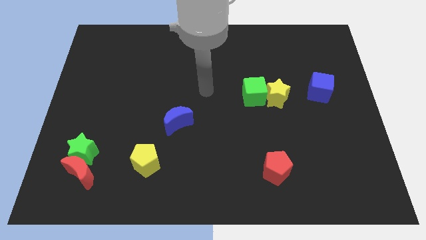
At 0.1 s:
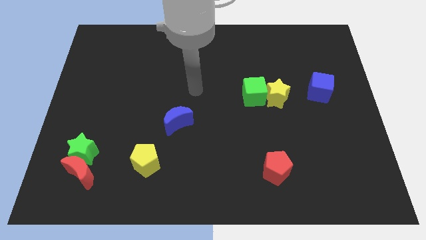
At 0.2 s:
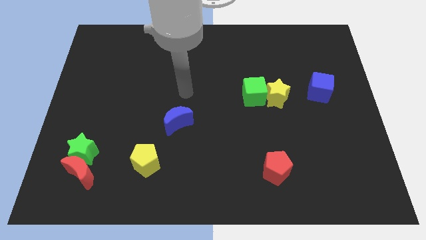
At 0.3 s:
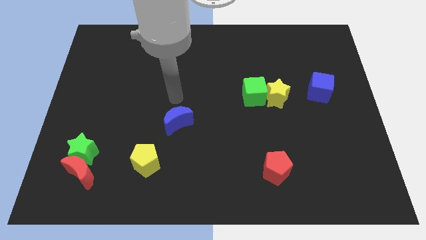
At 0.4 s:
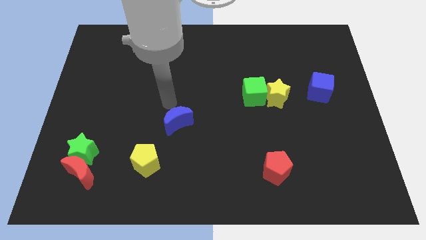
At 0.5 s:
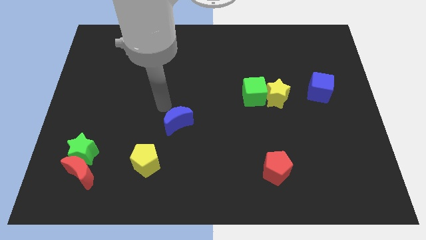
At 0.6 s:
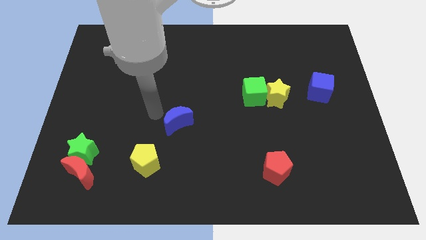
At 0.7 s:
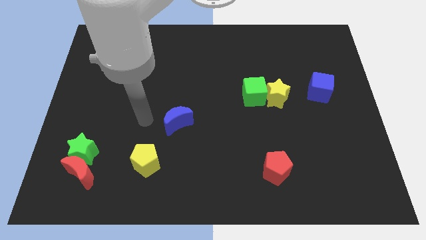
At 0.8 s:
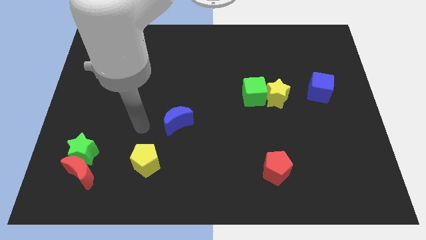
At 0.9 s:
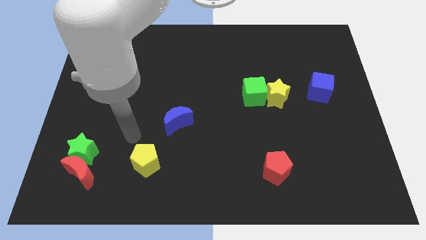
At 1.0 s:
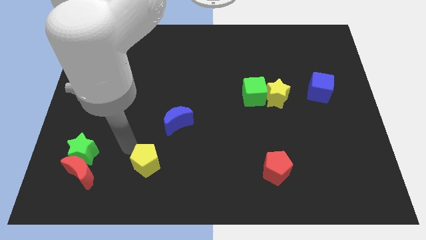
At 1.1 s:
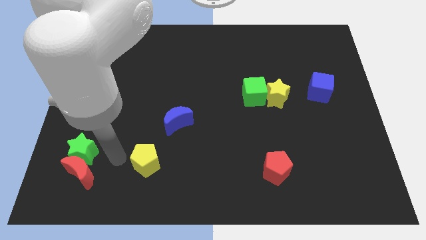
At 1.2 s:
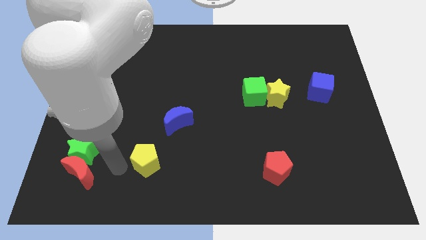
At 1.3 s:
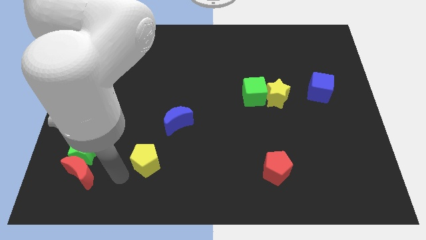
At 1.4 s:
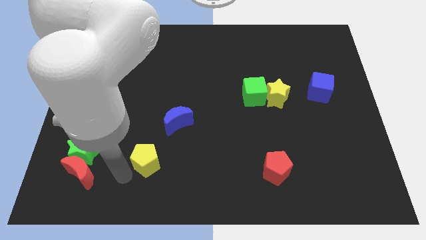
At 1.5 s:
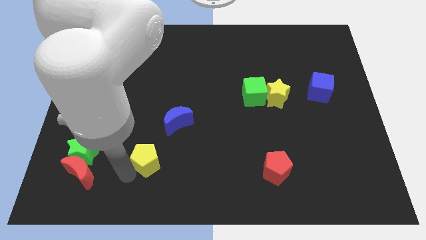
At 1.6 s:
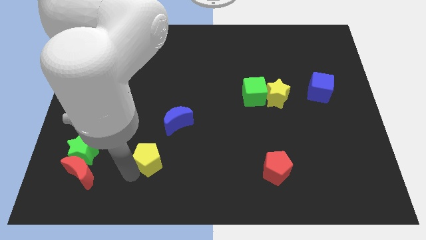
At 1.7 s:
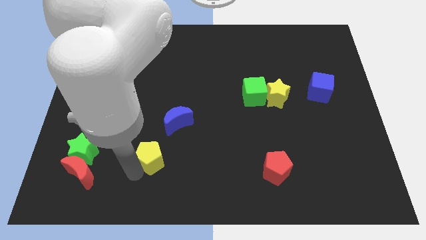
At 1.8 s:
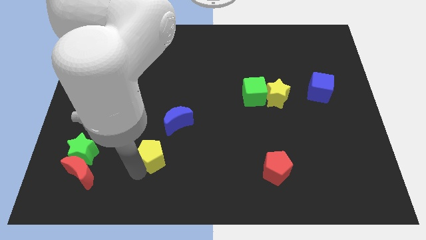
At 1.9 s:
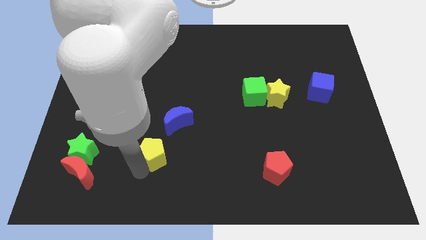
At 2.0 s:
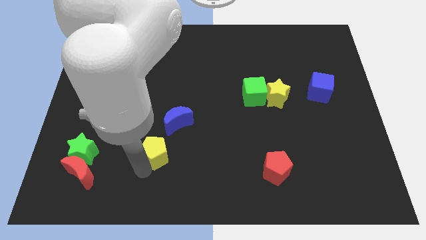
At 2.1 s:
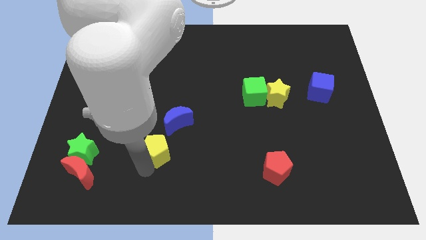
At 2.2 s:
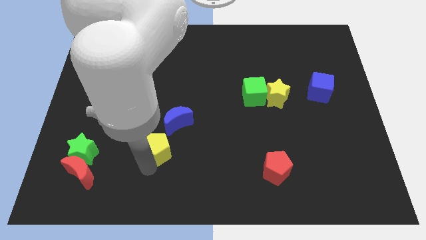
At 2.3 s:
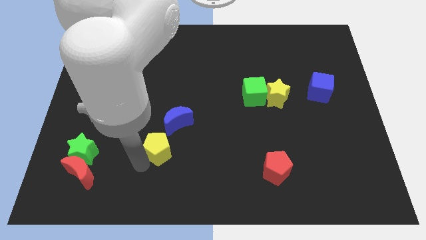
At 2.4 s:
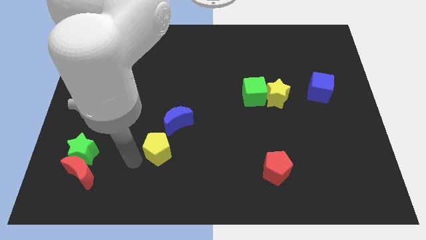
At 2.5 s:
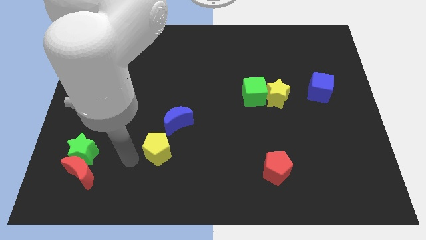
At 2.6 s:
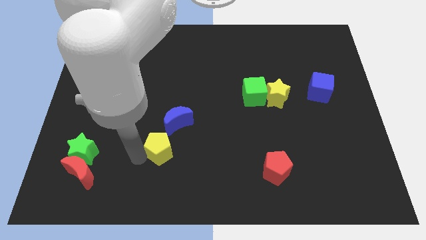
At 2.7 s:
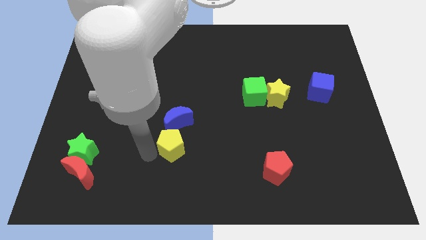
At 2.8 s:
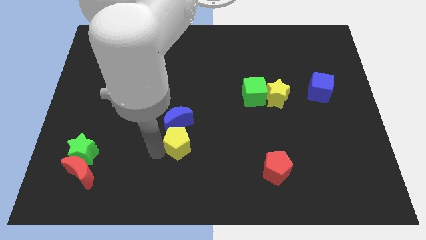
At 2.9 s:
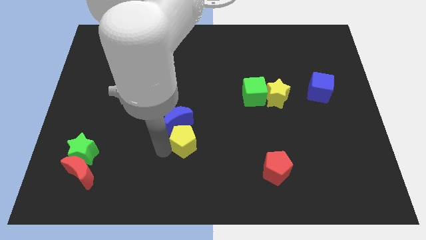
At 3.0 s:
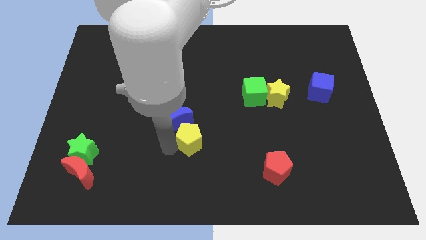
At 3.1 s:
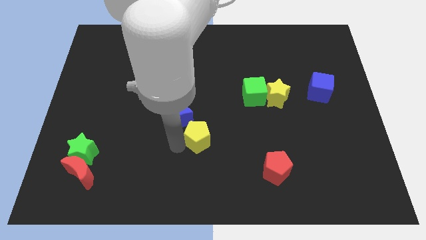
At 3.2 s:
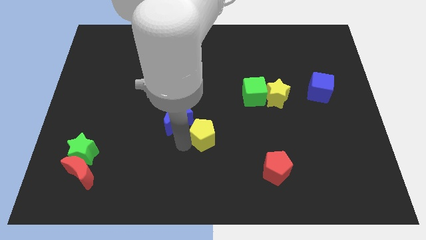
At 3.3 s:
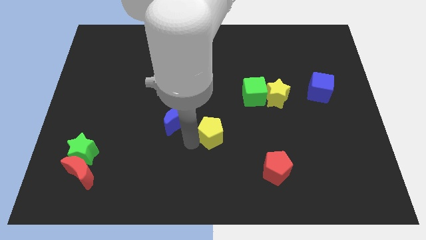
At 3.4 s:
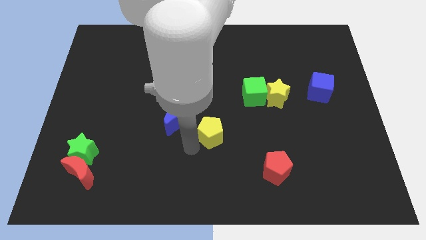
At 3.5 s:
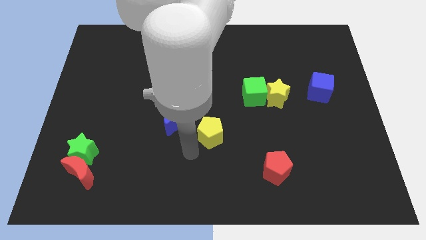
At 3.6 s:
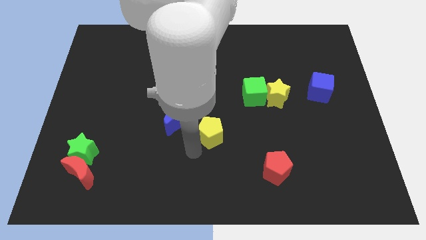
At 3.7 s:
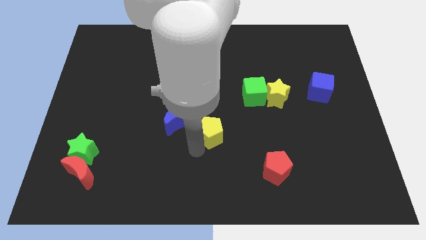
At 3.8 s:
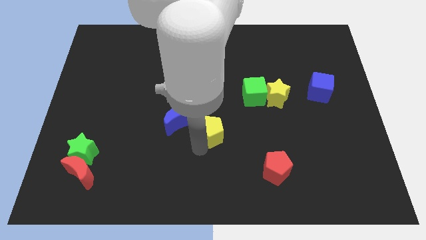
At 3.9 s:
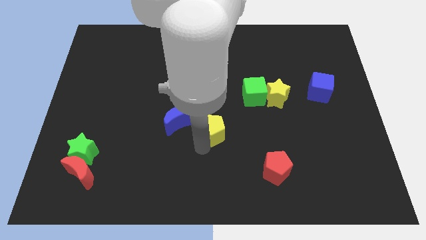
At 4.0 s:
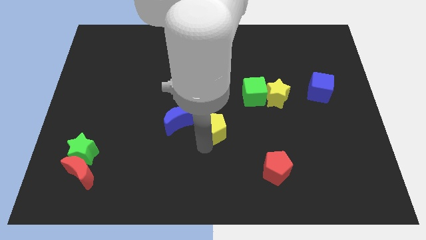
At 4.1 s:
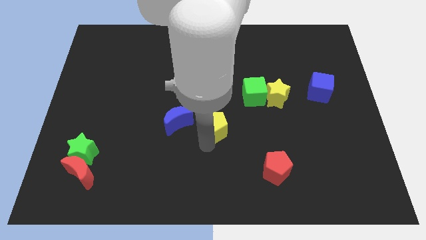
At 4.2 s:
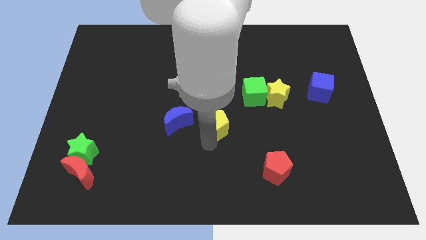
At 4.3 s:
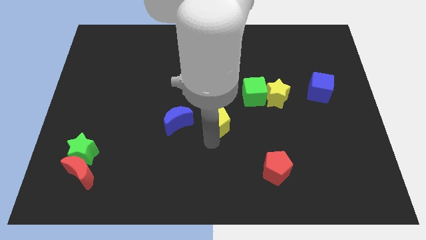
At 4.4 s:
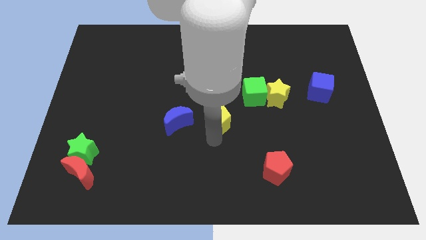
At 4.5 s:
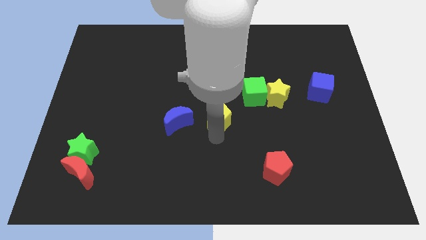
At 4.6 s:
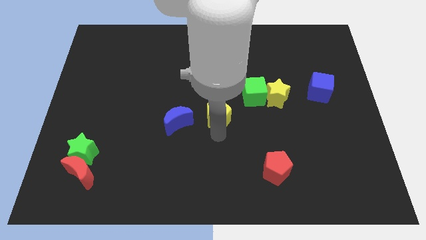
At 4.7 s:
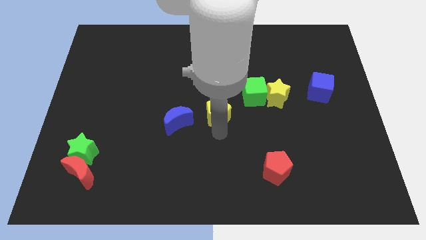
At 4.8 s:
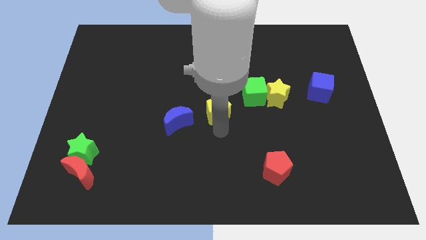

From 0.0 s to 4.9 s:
slide the yellow pentagon diagonally upwards and right

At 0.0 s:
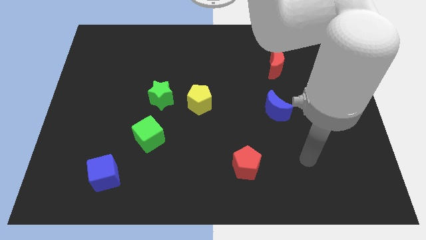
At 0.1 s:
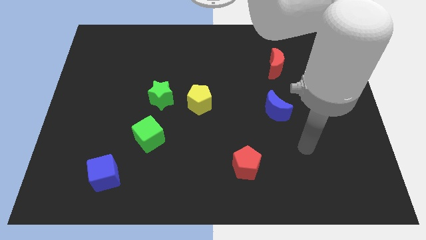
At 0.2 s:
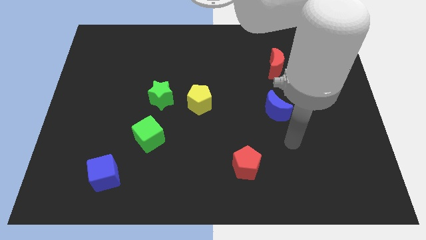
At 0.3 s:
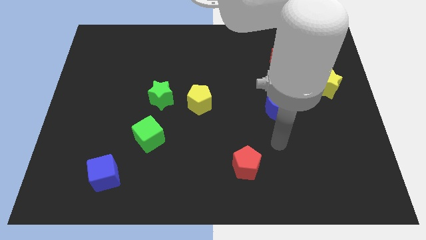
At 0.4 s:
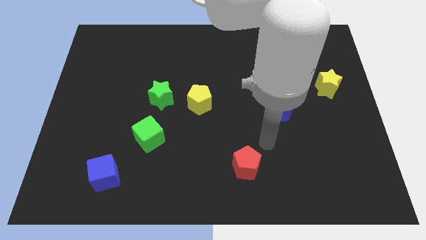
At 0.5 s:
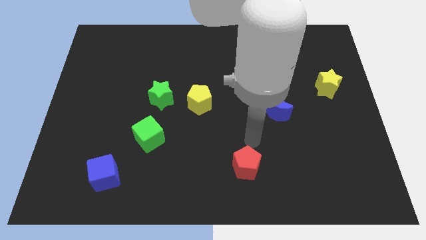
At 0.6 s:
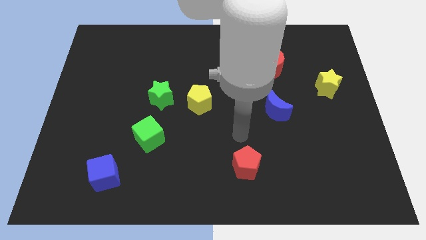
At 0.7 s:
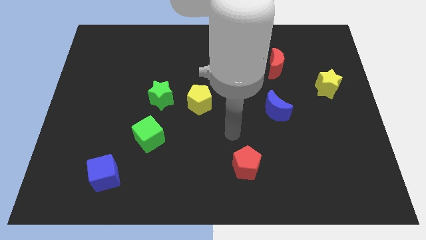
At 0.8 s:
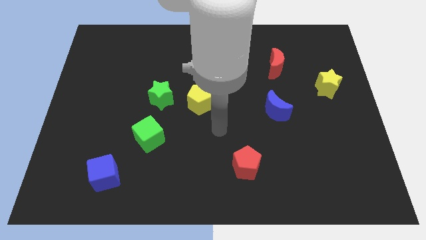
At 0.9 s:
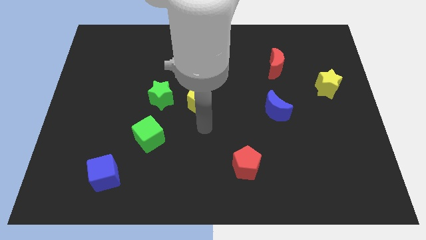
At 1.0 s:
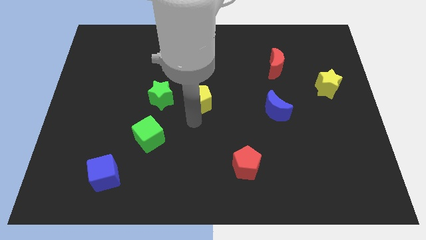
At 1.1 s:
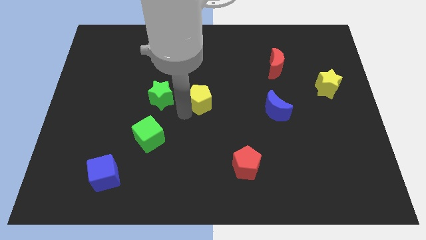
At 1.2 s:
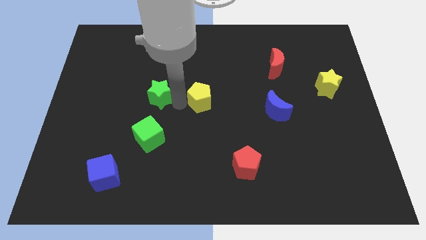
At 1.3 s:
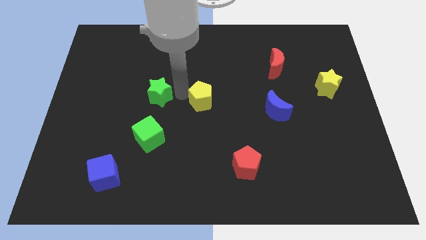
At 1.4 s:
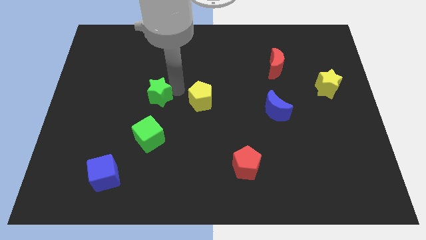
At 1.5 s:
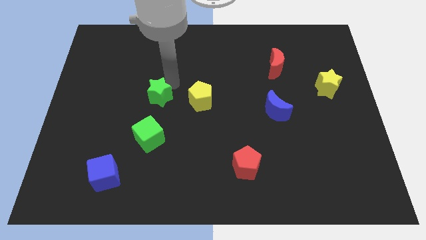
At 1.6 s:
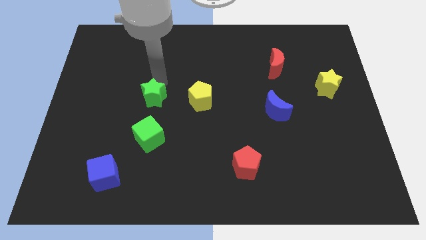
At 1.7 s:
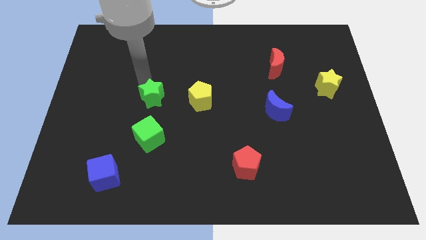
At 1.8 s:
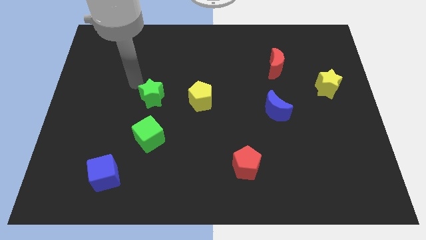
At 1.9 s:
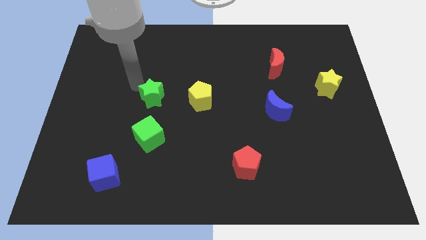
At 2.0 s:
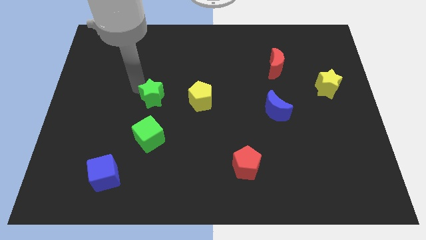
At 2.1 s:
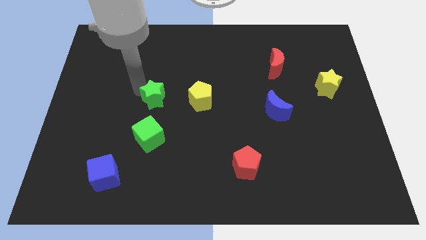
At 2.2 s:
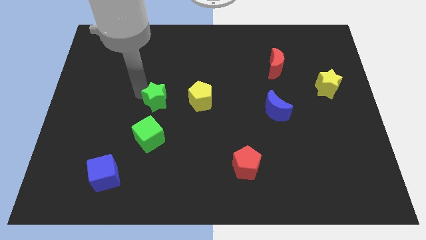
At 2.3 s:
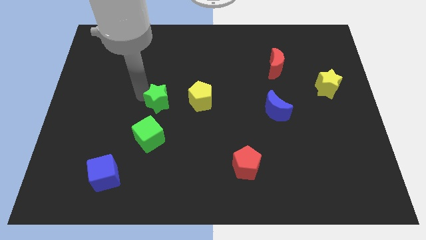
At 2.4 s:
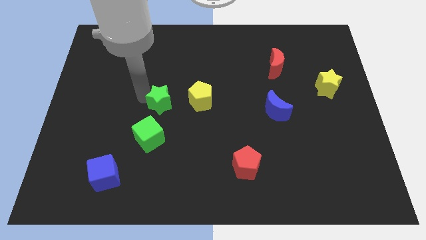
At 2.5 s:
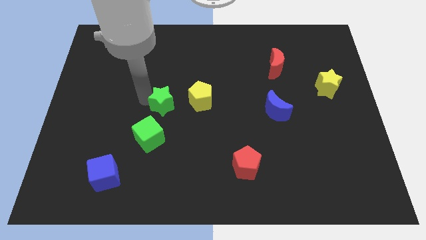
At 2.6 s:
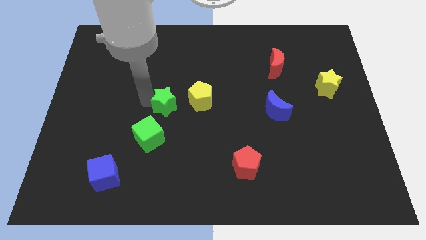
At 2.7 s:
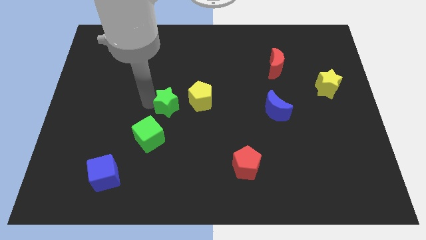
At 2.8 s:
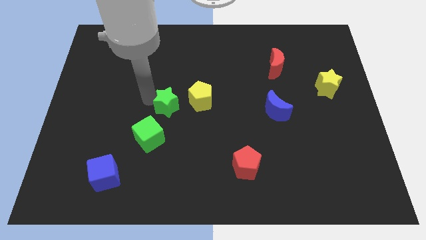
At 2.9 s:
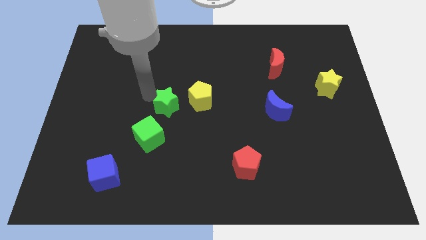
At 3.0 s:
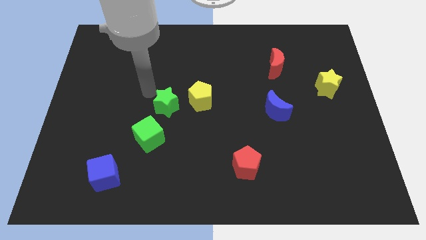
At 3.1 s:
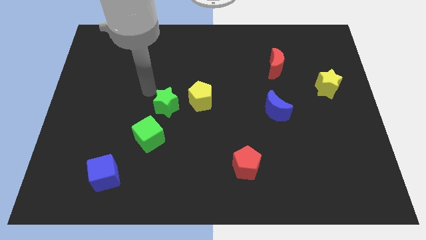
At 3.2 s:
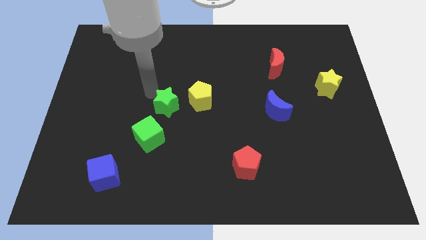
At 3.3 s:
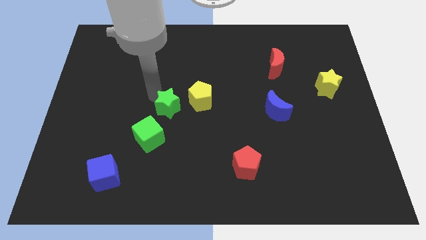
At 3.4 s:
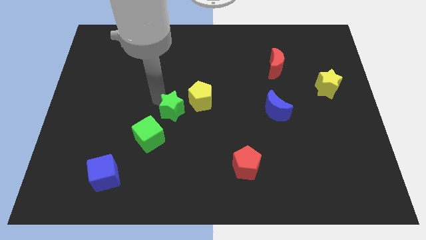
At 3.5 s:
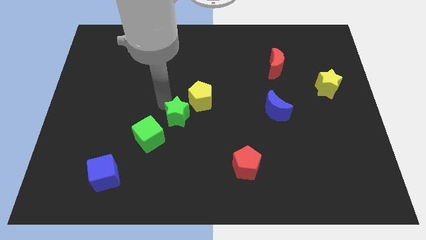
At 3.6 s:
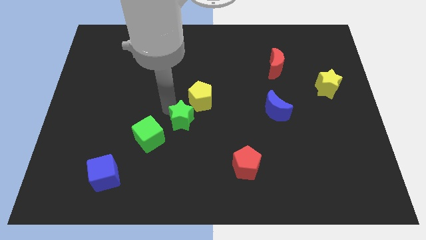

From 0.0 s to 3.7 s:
push the green star a bit diagonally down and right
